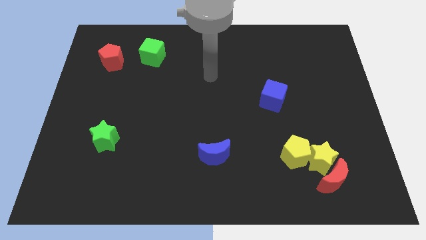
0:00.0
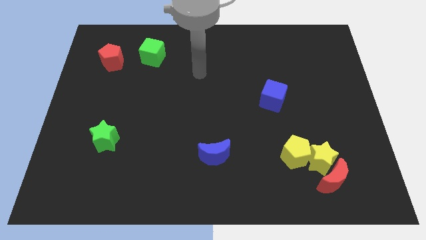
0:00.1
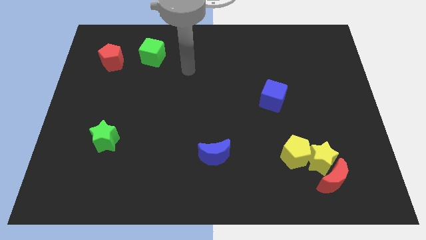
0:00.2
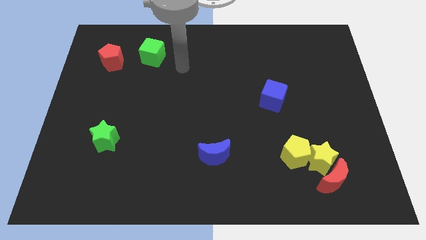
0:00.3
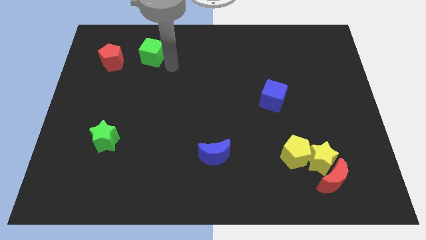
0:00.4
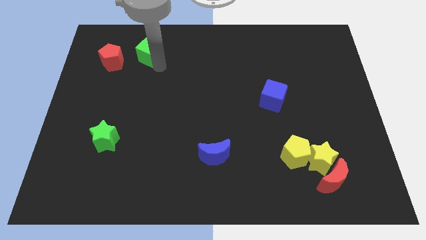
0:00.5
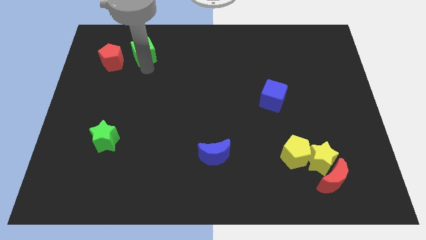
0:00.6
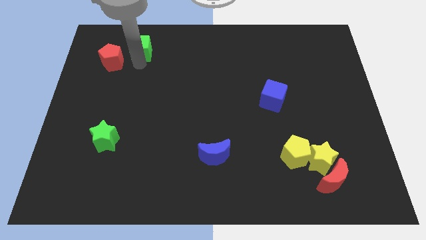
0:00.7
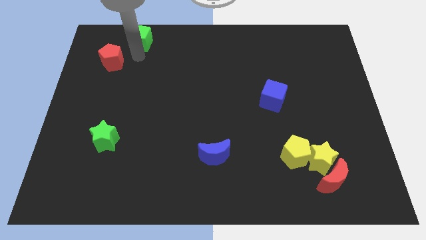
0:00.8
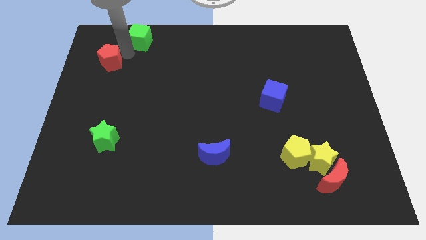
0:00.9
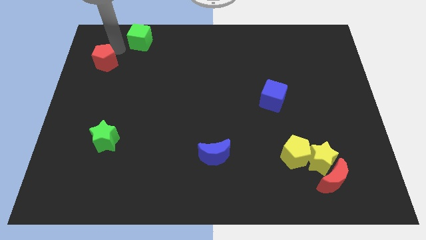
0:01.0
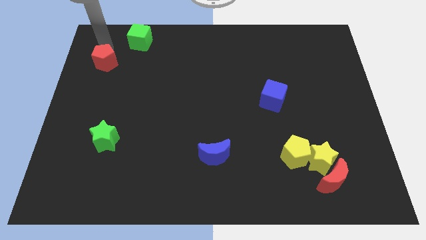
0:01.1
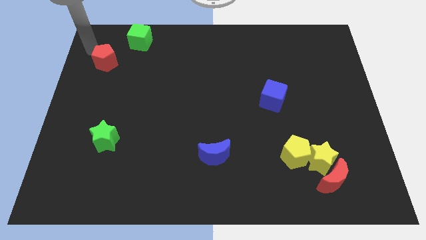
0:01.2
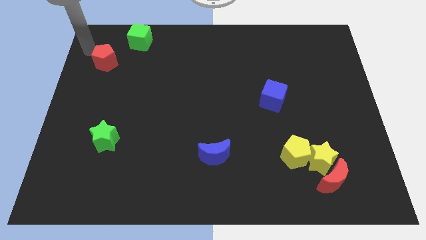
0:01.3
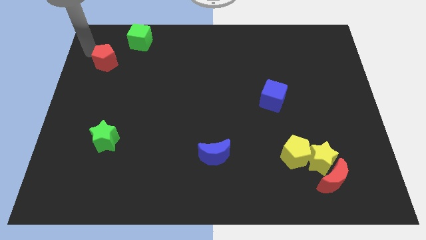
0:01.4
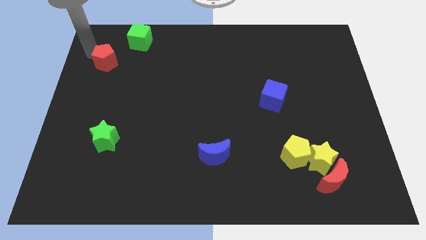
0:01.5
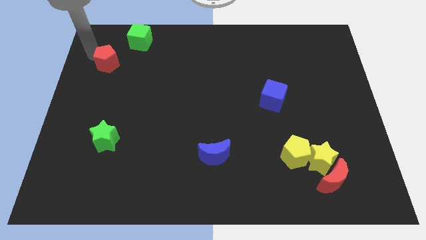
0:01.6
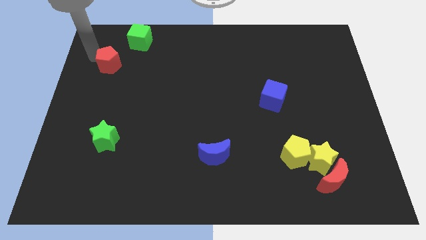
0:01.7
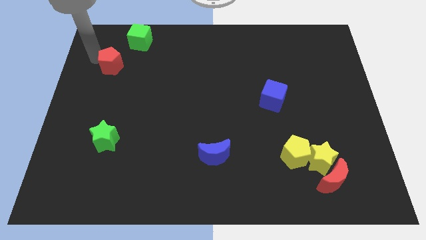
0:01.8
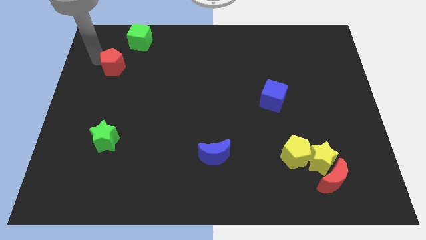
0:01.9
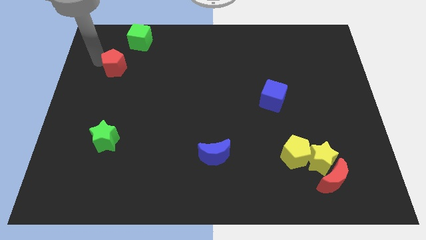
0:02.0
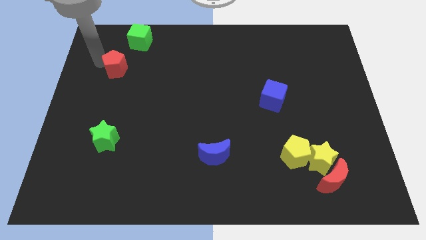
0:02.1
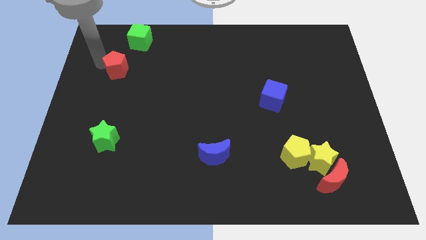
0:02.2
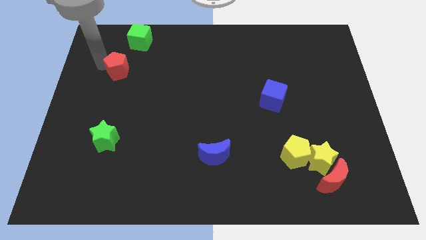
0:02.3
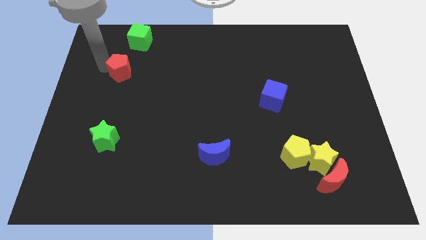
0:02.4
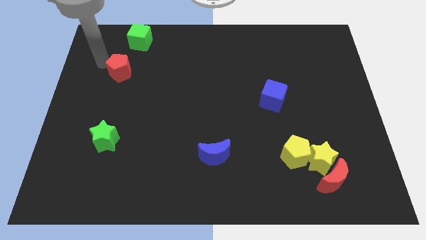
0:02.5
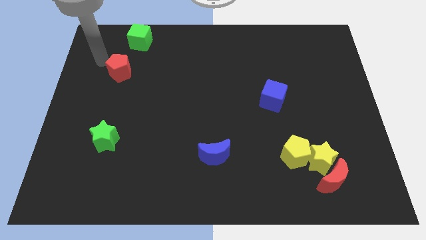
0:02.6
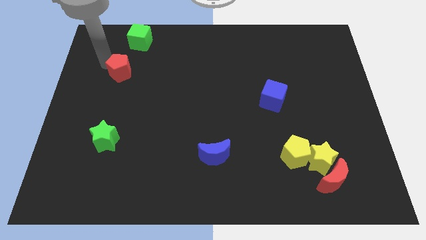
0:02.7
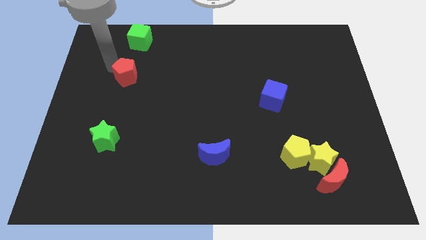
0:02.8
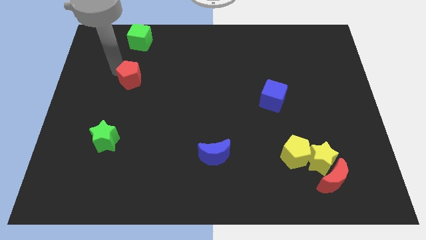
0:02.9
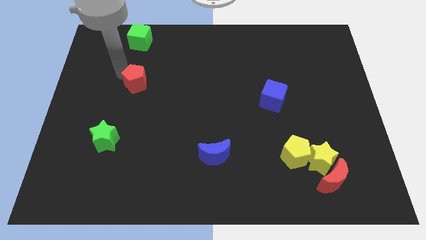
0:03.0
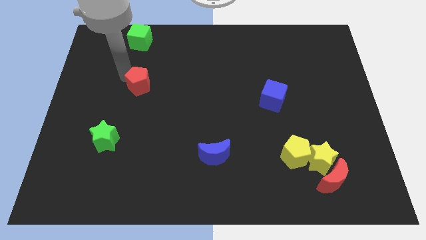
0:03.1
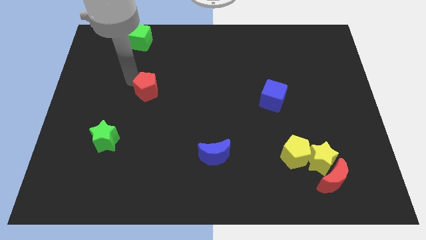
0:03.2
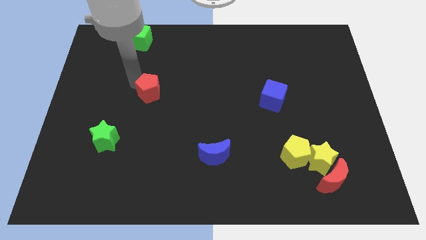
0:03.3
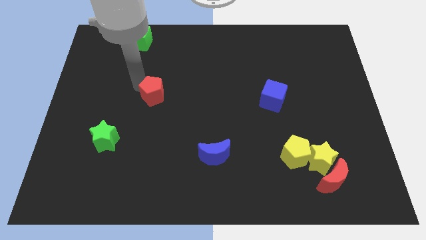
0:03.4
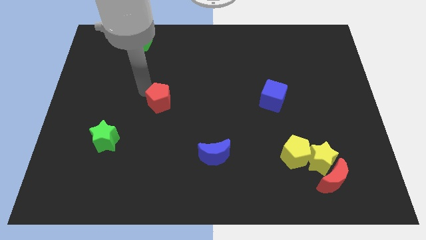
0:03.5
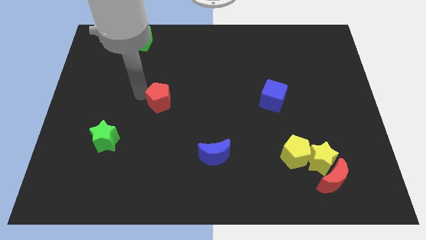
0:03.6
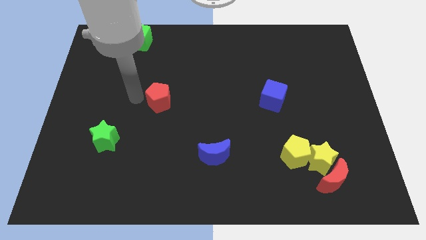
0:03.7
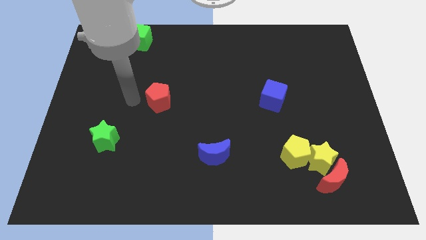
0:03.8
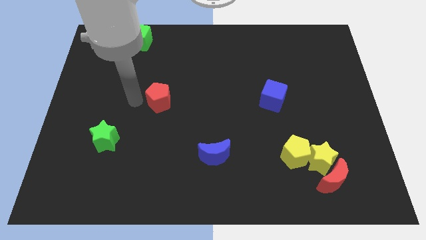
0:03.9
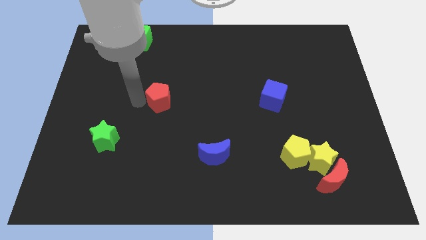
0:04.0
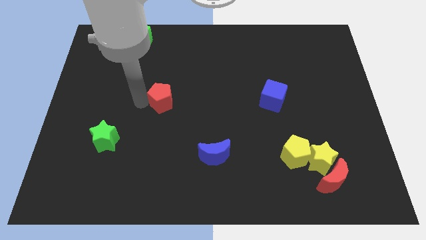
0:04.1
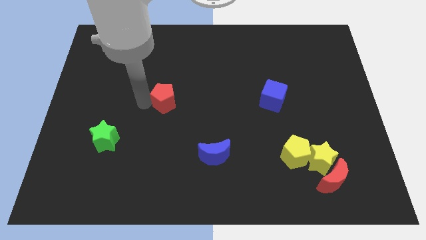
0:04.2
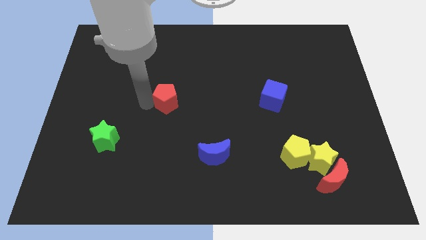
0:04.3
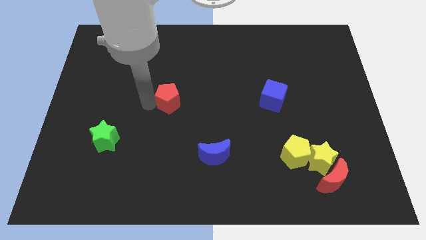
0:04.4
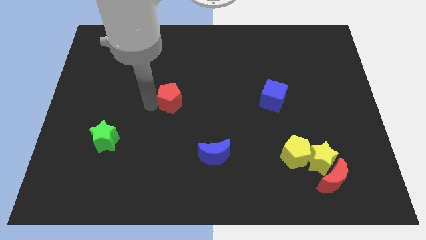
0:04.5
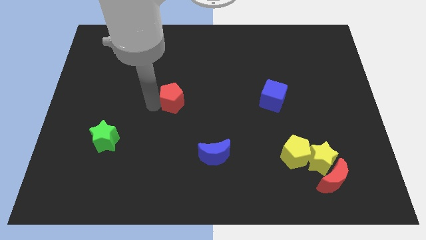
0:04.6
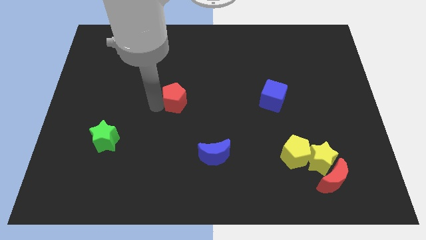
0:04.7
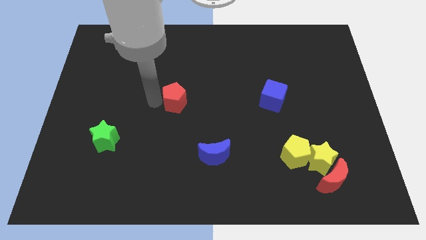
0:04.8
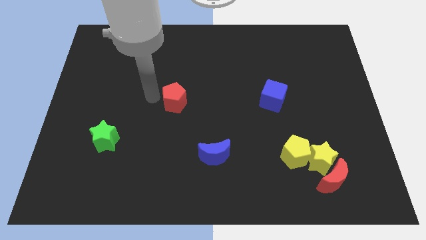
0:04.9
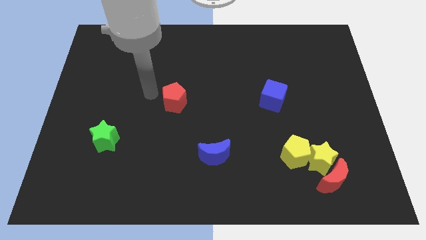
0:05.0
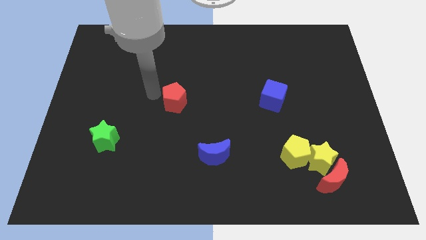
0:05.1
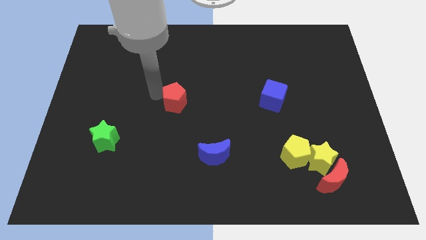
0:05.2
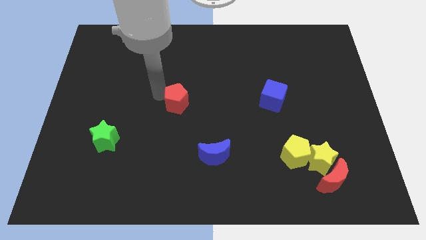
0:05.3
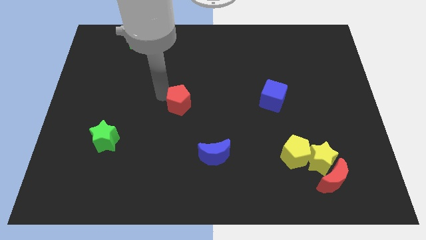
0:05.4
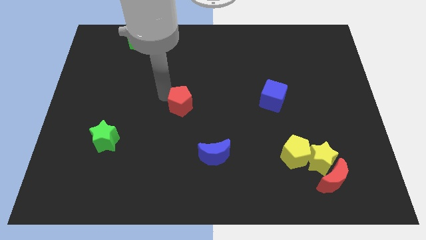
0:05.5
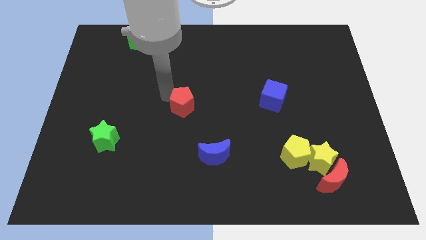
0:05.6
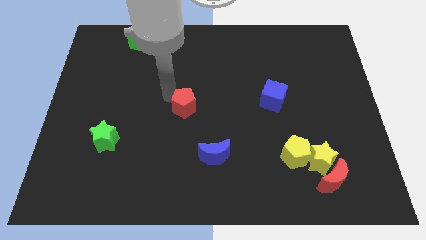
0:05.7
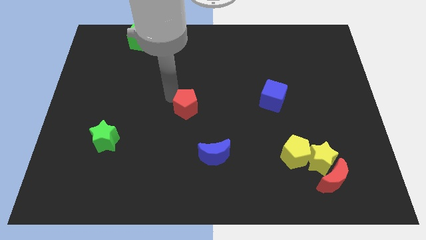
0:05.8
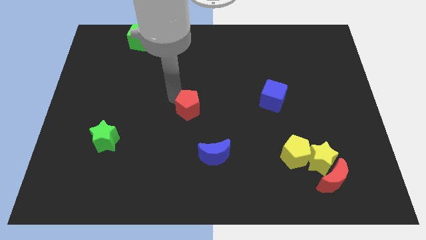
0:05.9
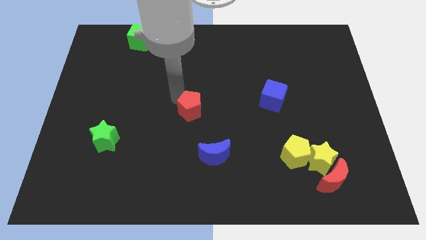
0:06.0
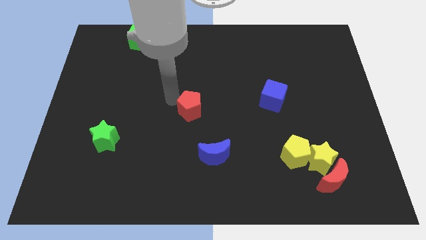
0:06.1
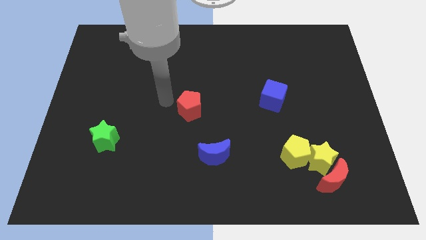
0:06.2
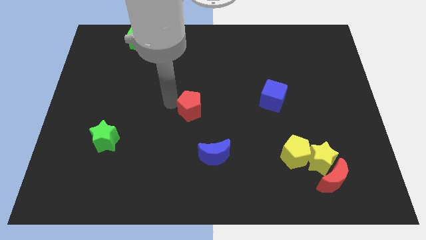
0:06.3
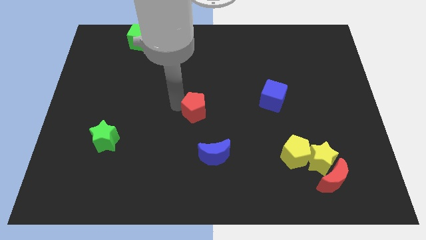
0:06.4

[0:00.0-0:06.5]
slide the red pentagon to the top side of the blue moon

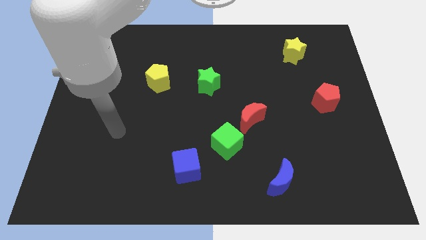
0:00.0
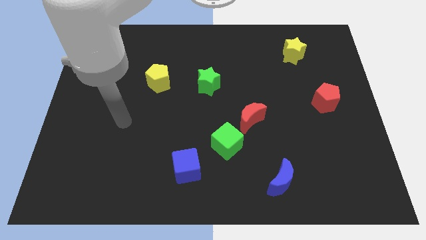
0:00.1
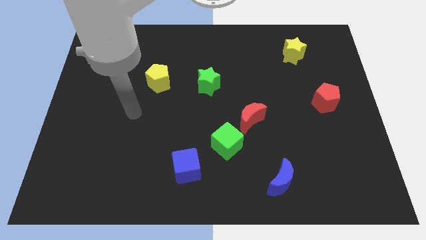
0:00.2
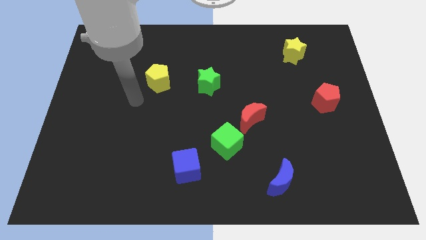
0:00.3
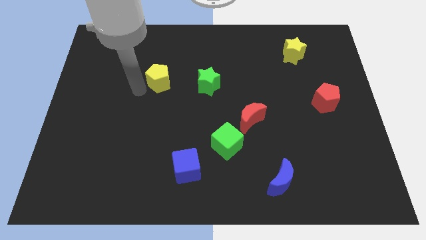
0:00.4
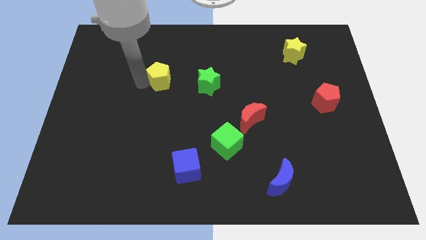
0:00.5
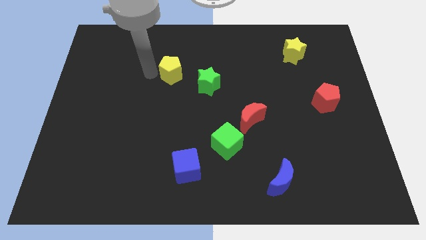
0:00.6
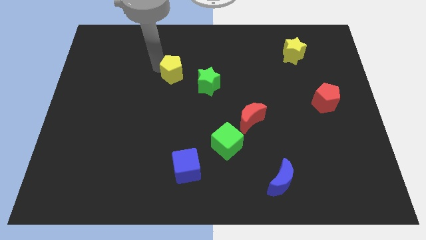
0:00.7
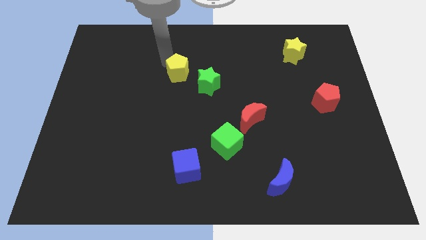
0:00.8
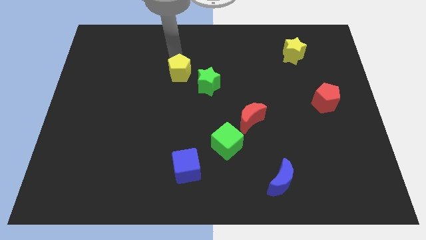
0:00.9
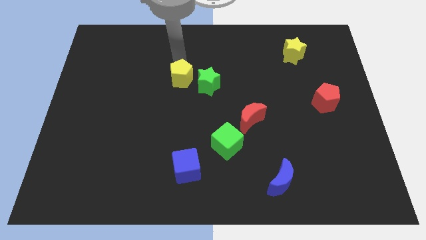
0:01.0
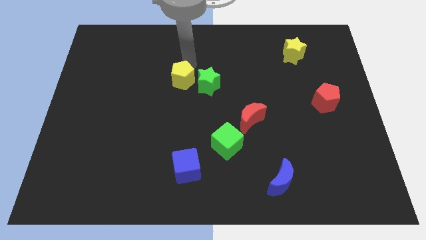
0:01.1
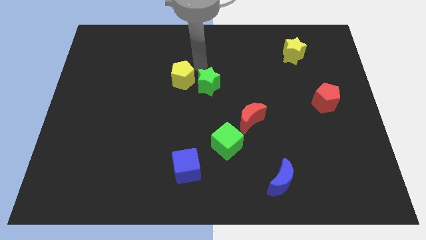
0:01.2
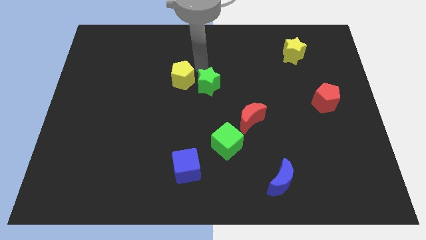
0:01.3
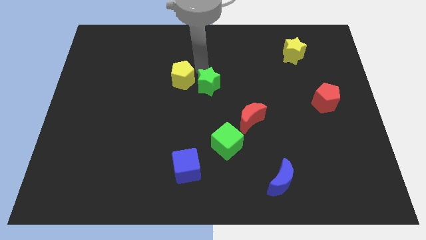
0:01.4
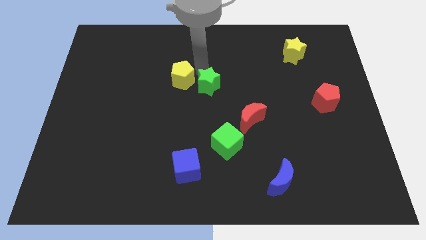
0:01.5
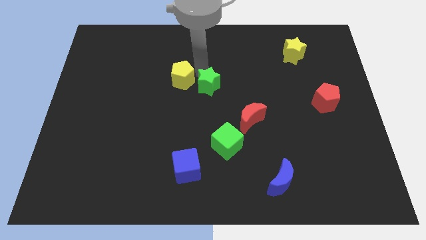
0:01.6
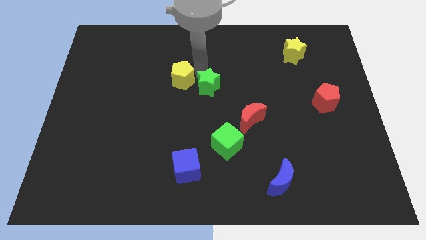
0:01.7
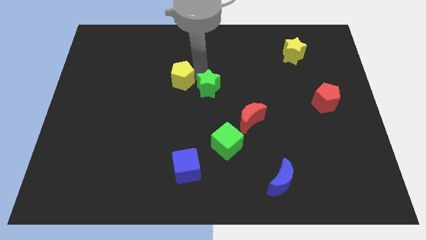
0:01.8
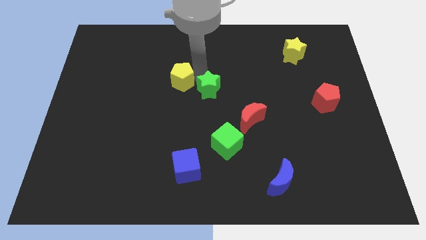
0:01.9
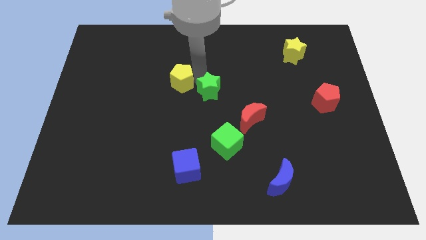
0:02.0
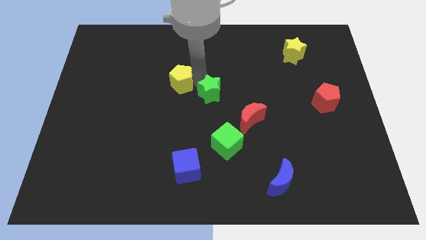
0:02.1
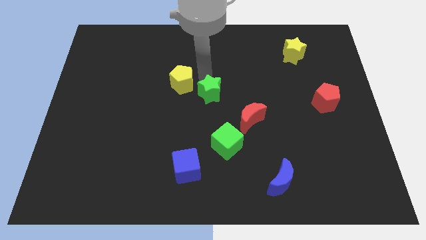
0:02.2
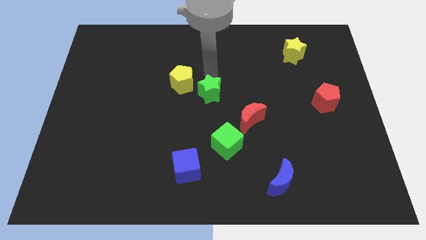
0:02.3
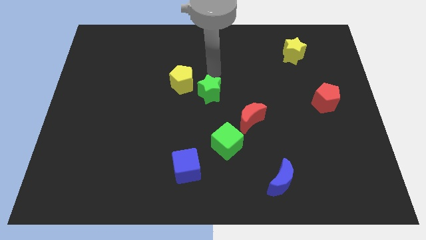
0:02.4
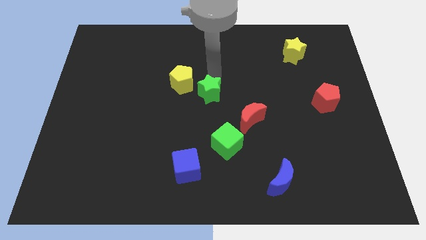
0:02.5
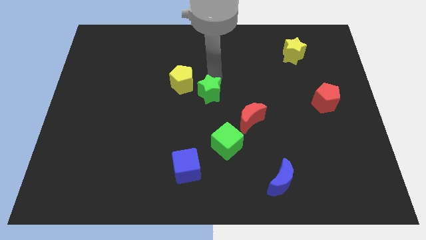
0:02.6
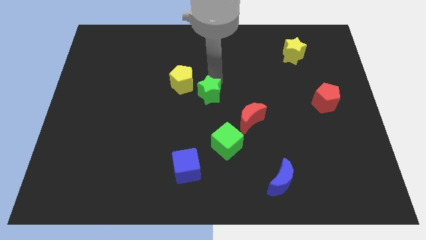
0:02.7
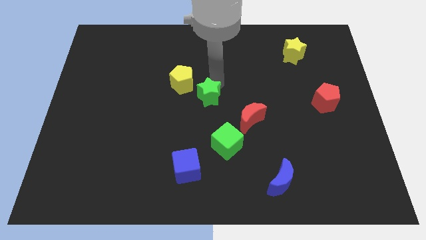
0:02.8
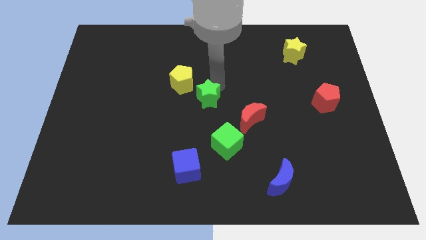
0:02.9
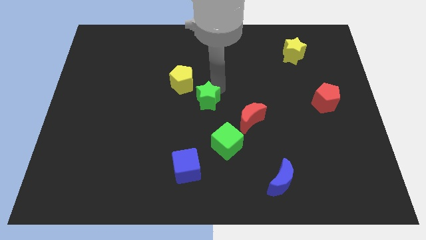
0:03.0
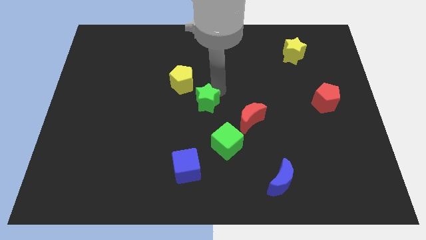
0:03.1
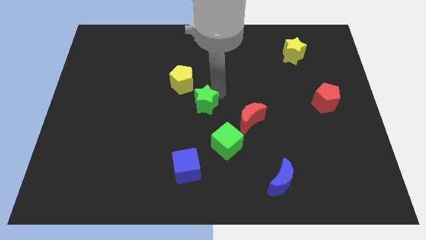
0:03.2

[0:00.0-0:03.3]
push the green star just left of the red moon
